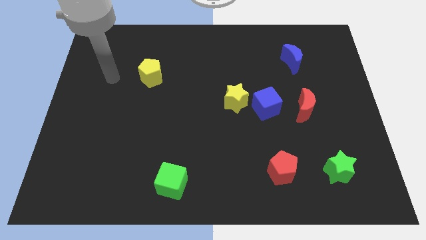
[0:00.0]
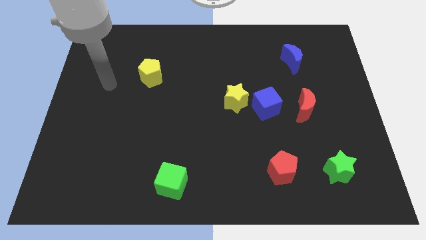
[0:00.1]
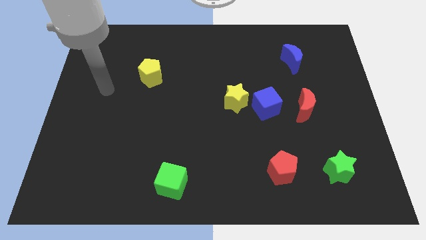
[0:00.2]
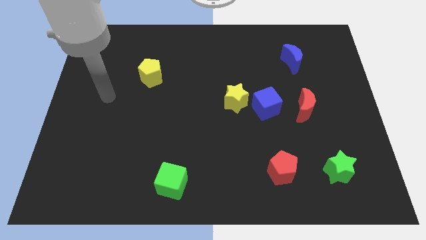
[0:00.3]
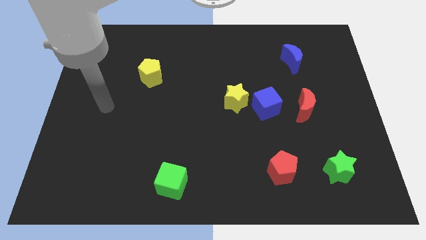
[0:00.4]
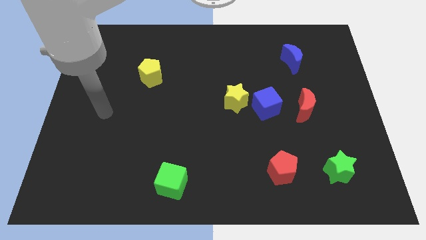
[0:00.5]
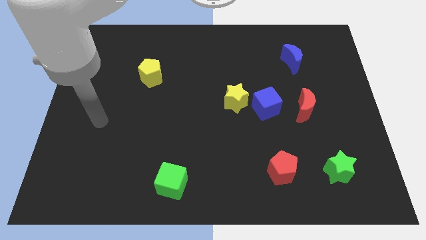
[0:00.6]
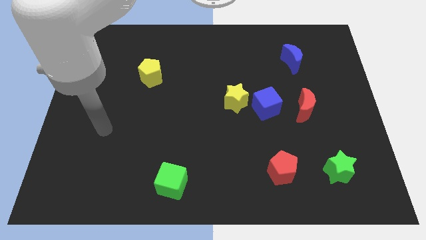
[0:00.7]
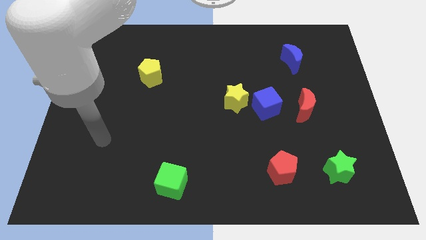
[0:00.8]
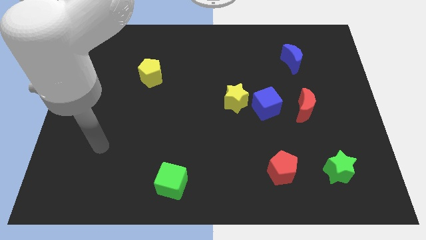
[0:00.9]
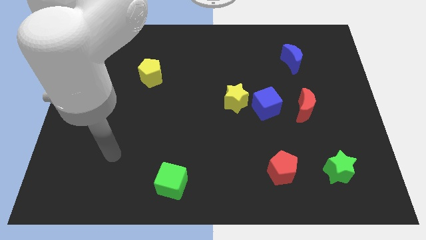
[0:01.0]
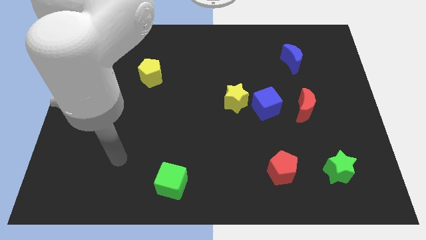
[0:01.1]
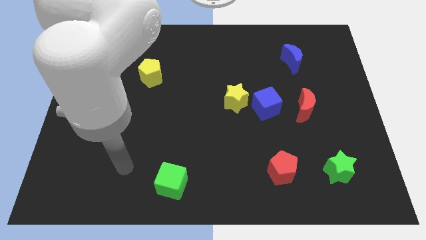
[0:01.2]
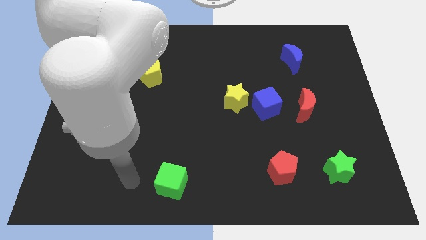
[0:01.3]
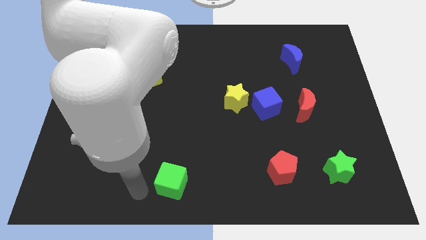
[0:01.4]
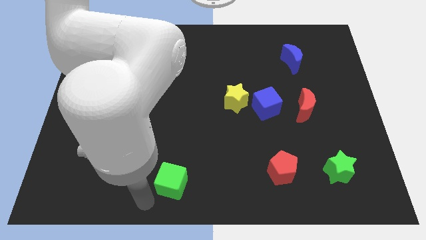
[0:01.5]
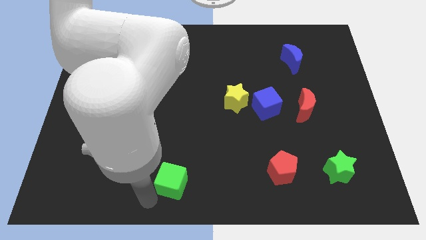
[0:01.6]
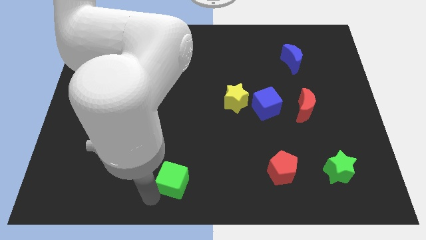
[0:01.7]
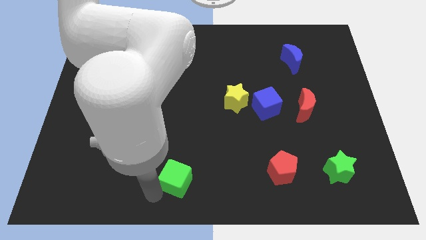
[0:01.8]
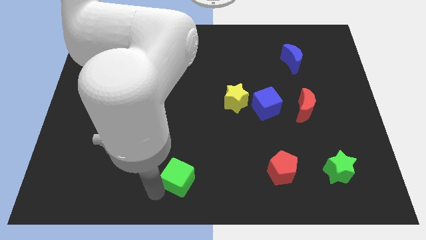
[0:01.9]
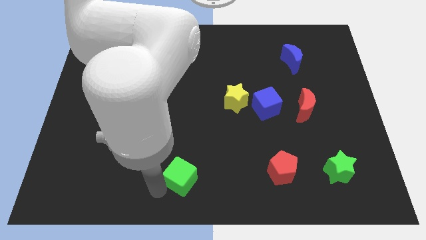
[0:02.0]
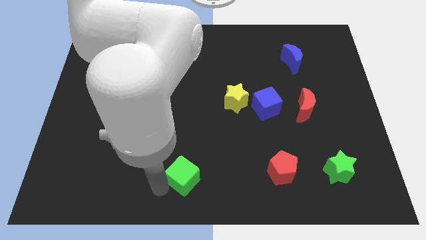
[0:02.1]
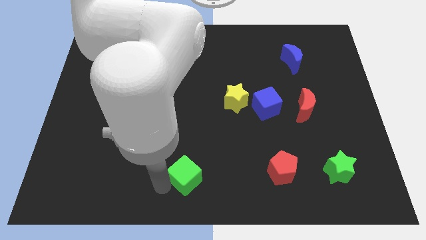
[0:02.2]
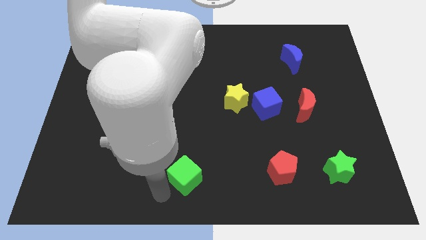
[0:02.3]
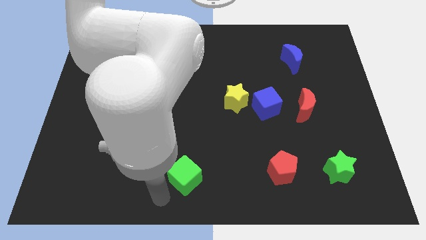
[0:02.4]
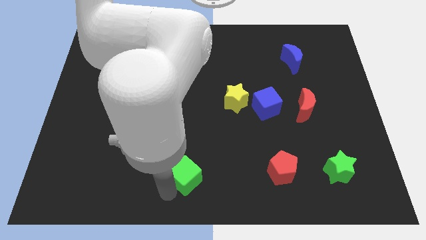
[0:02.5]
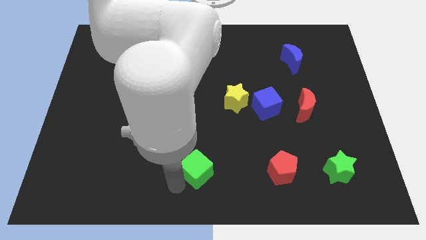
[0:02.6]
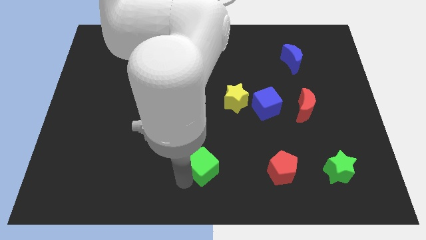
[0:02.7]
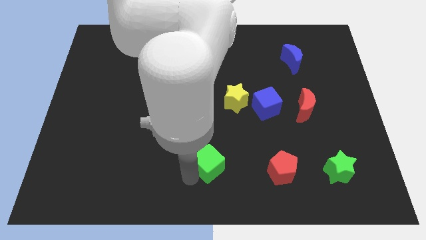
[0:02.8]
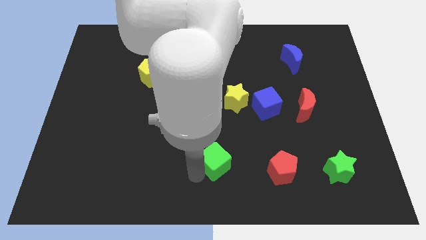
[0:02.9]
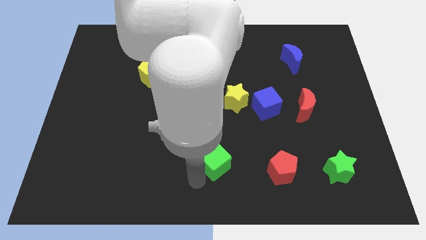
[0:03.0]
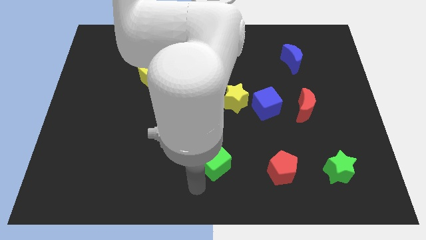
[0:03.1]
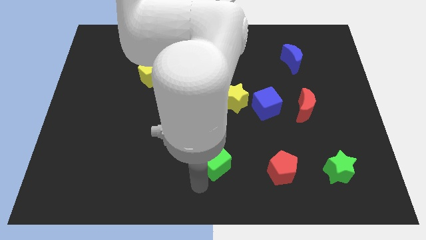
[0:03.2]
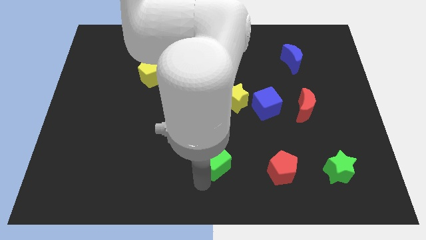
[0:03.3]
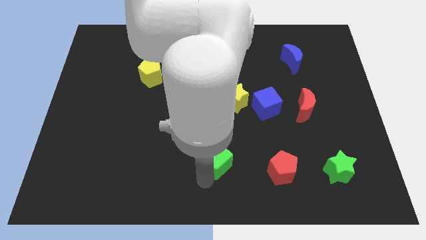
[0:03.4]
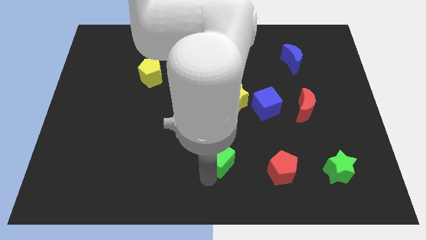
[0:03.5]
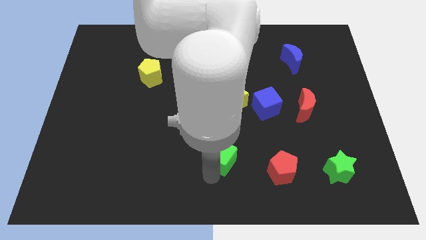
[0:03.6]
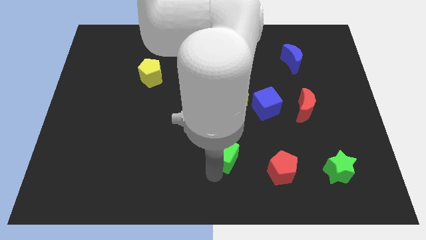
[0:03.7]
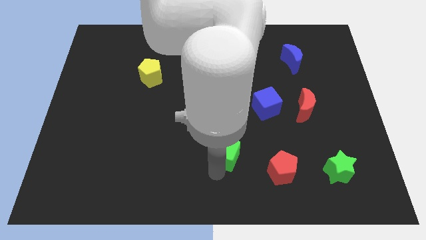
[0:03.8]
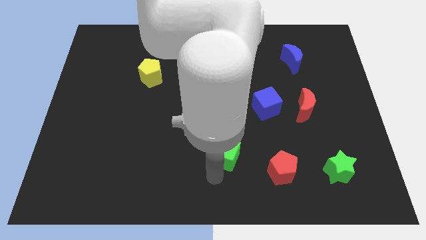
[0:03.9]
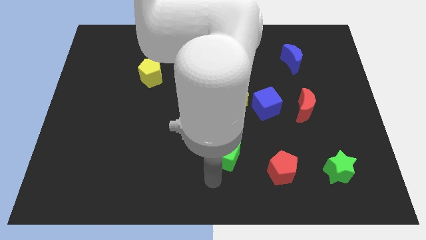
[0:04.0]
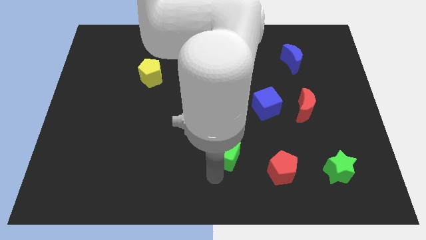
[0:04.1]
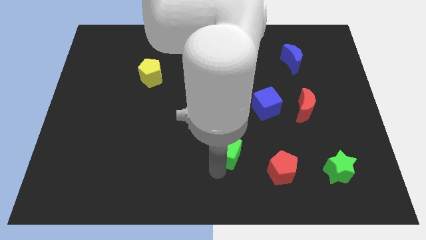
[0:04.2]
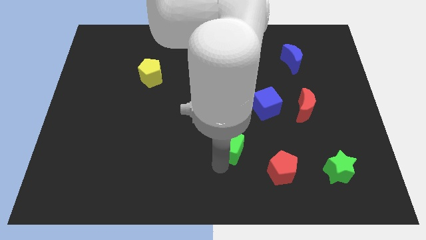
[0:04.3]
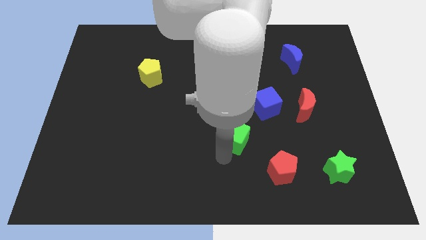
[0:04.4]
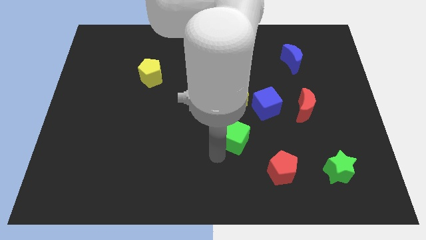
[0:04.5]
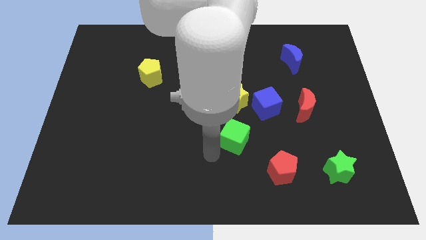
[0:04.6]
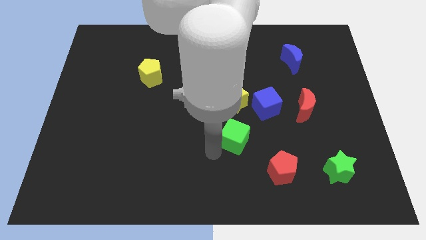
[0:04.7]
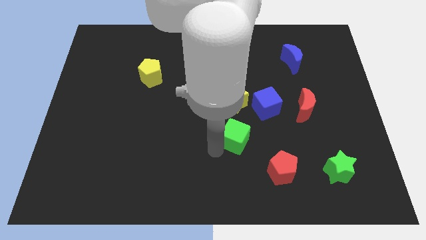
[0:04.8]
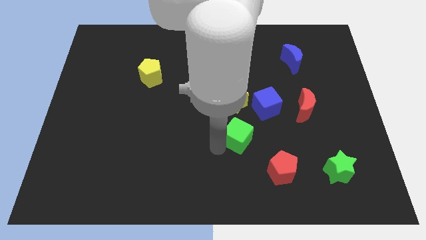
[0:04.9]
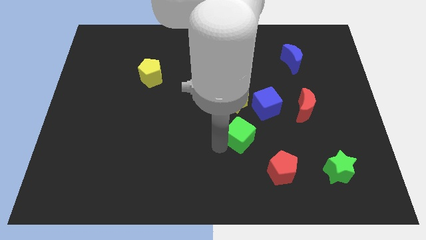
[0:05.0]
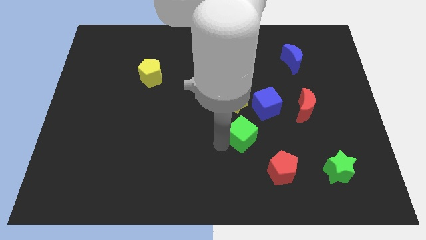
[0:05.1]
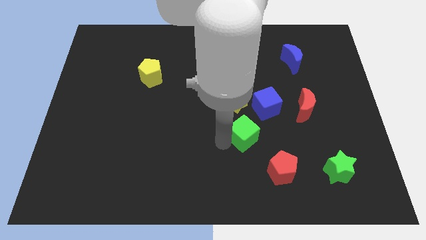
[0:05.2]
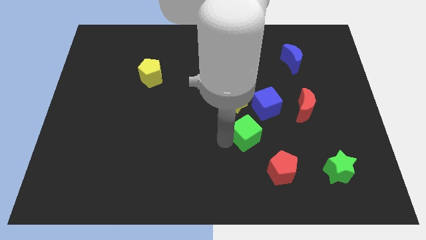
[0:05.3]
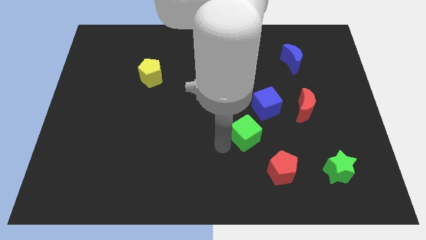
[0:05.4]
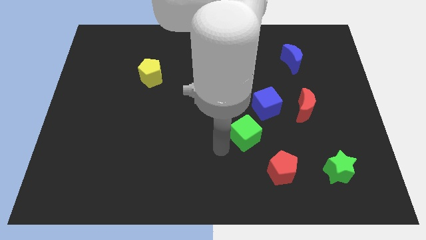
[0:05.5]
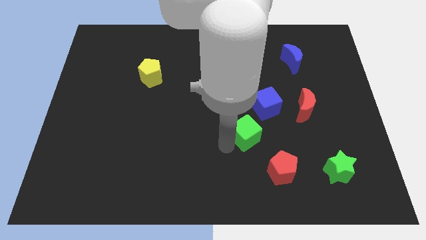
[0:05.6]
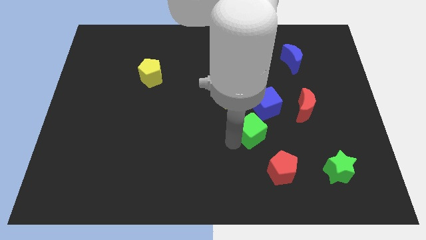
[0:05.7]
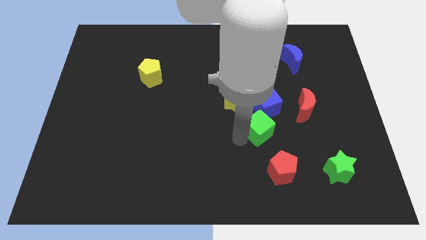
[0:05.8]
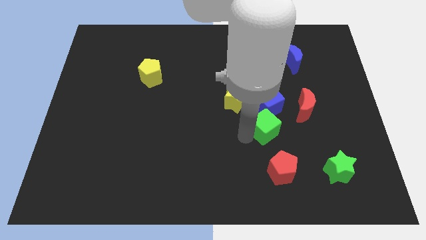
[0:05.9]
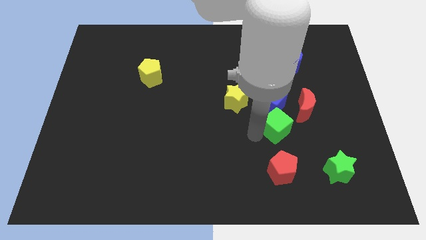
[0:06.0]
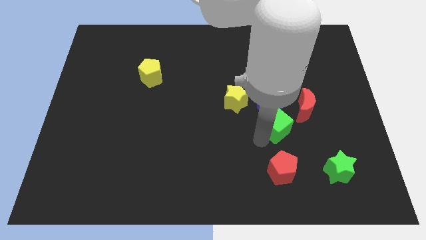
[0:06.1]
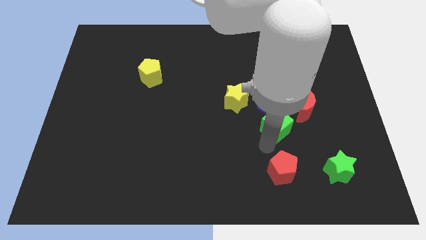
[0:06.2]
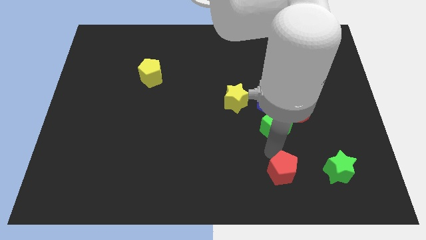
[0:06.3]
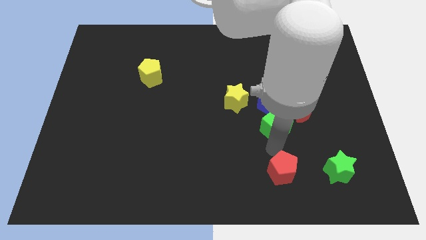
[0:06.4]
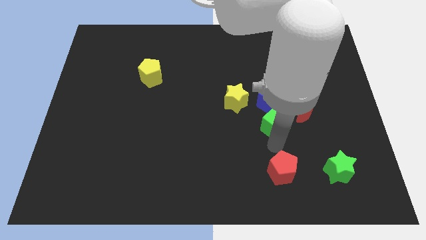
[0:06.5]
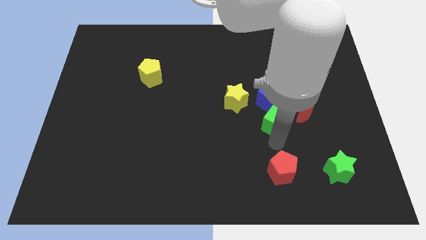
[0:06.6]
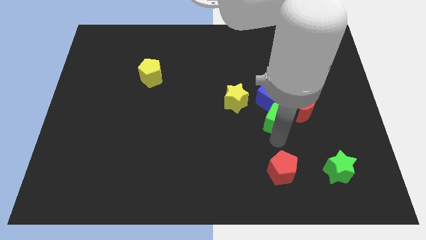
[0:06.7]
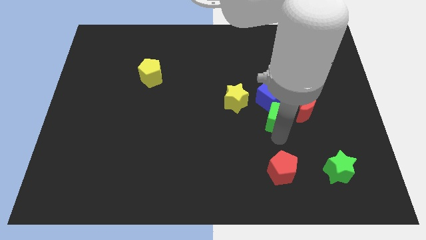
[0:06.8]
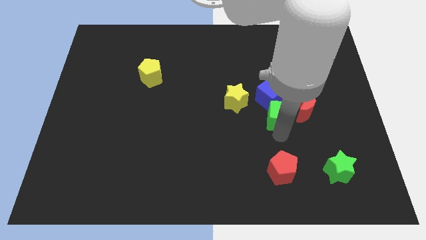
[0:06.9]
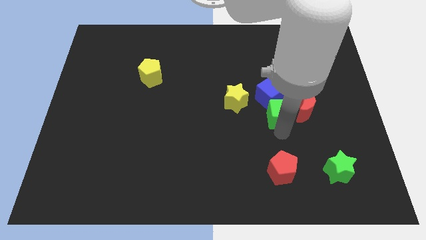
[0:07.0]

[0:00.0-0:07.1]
put the green cube right of the yellow star
